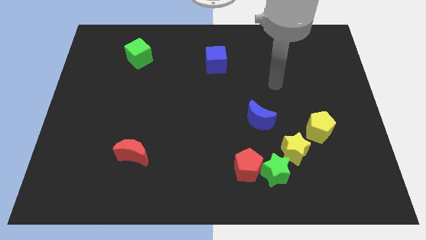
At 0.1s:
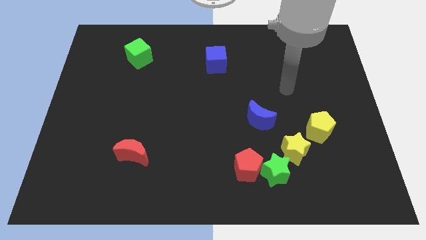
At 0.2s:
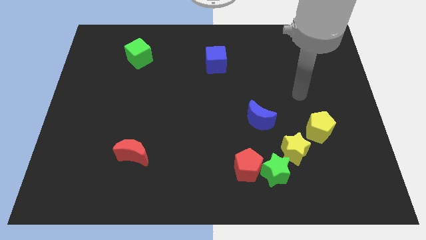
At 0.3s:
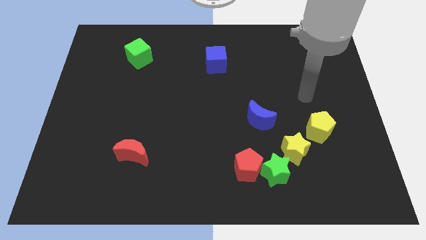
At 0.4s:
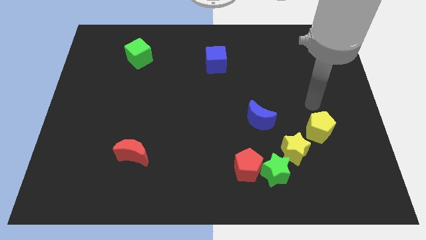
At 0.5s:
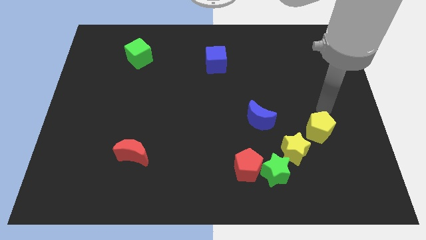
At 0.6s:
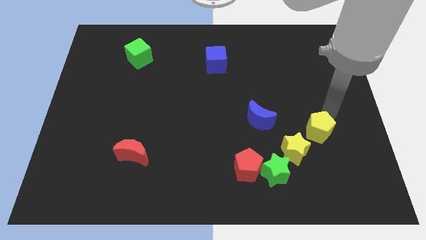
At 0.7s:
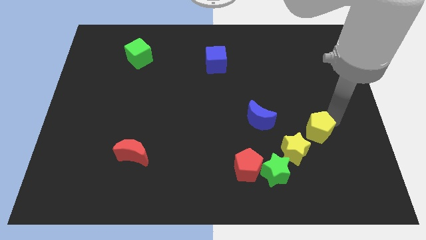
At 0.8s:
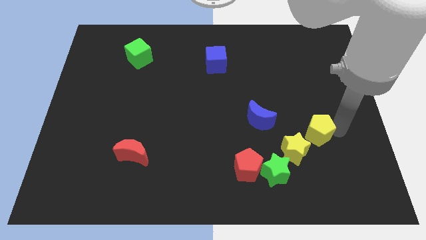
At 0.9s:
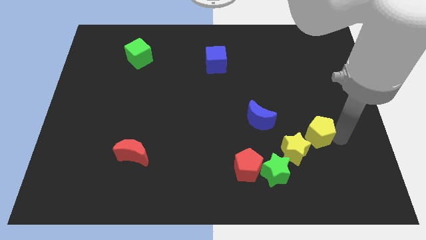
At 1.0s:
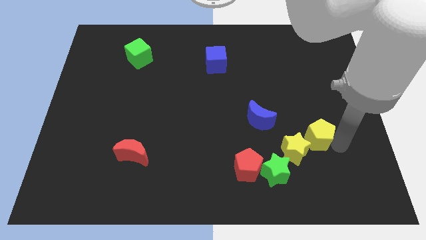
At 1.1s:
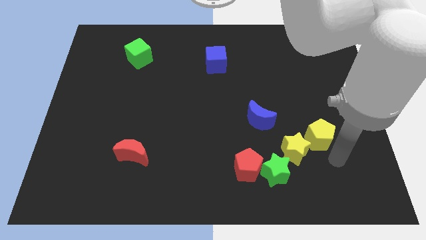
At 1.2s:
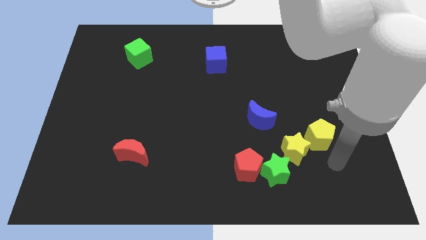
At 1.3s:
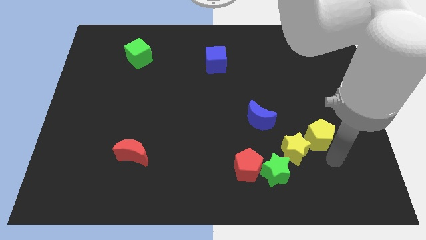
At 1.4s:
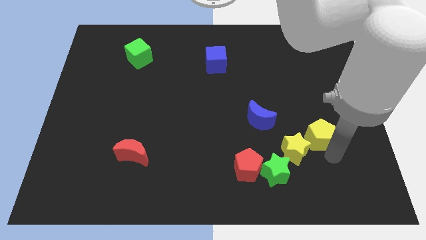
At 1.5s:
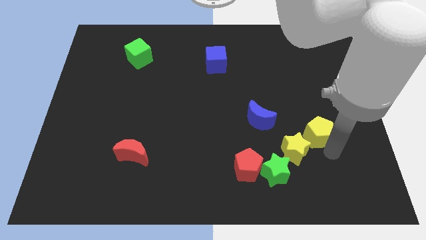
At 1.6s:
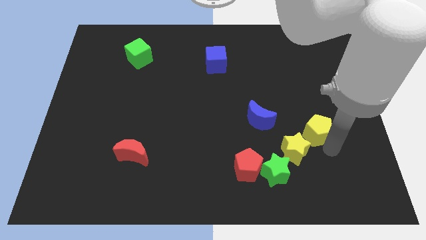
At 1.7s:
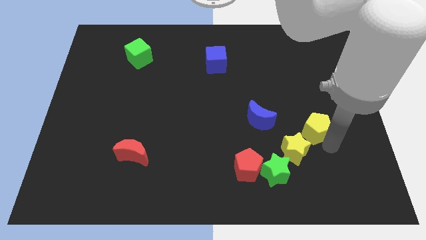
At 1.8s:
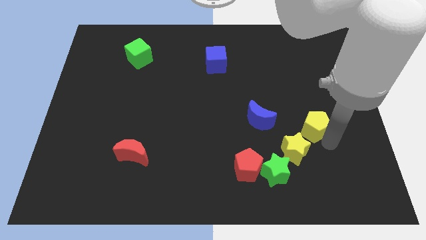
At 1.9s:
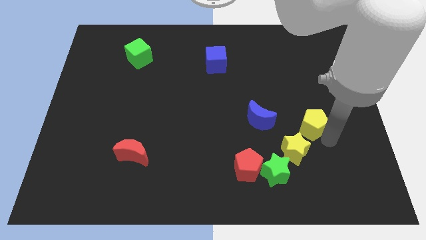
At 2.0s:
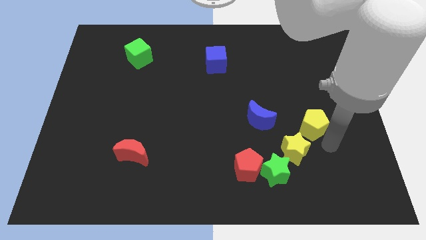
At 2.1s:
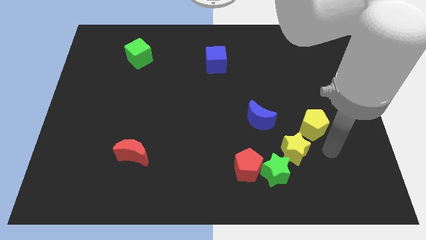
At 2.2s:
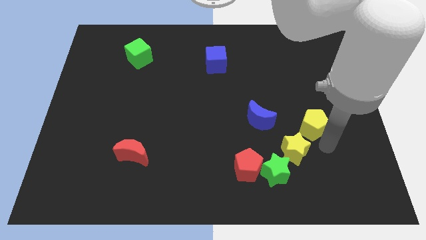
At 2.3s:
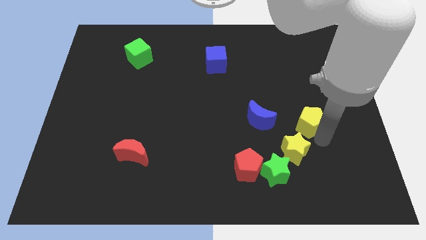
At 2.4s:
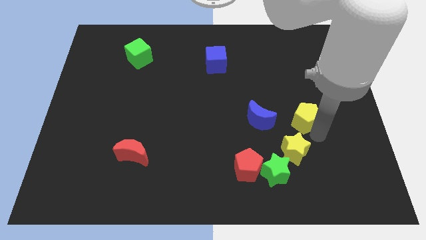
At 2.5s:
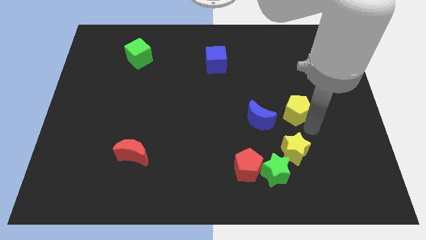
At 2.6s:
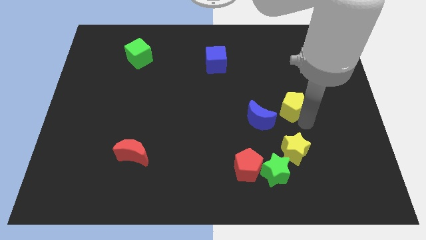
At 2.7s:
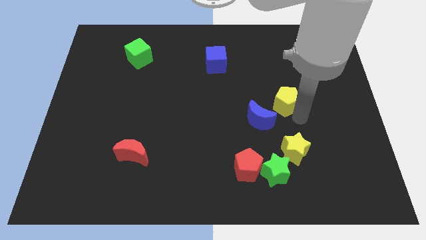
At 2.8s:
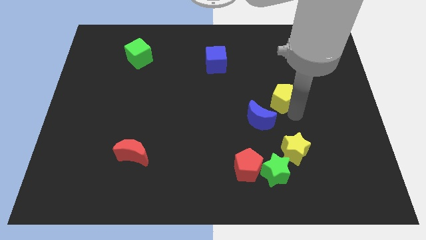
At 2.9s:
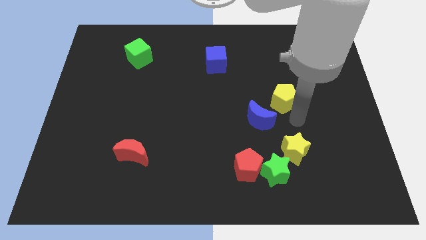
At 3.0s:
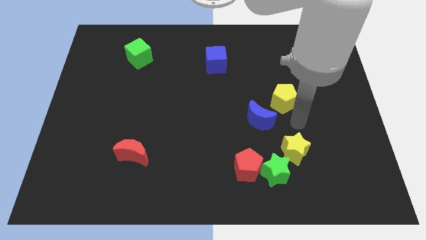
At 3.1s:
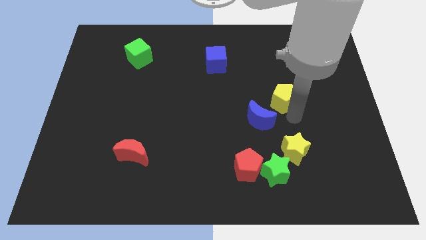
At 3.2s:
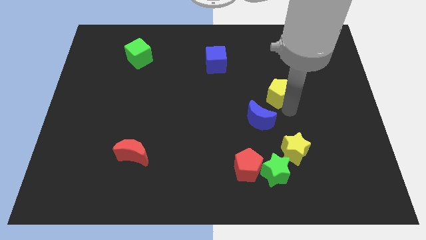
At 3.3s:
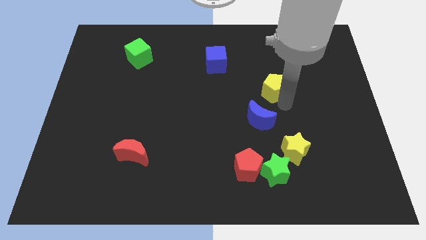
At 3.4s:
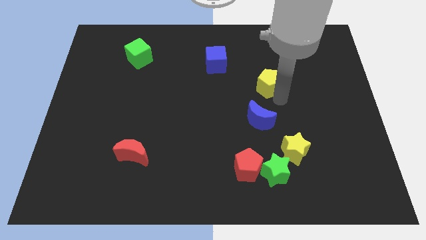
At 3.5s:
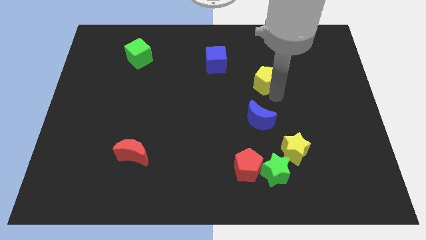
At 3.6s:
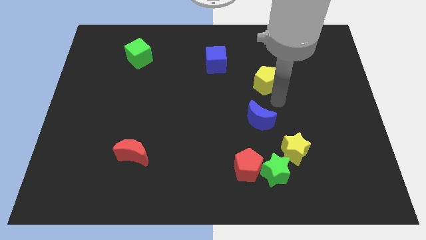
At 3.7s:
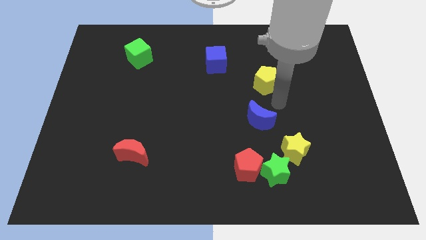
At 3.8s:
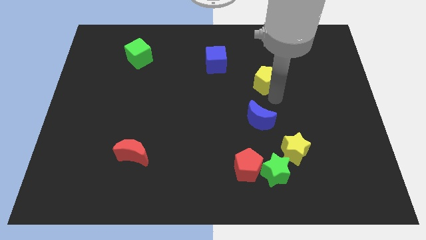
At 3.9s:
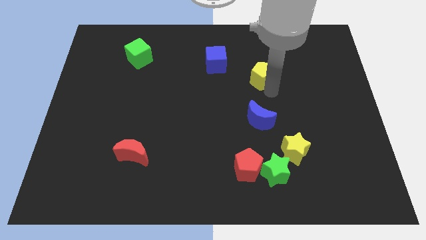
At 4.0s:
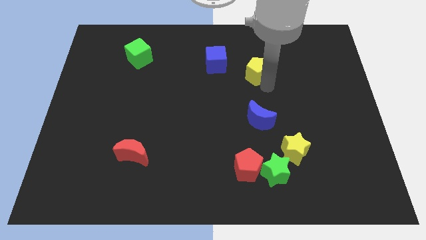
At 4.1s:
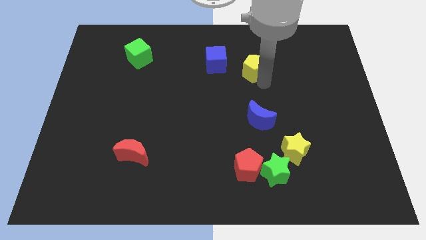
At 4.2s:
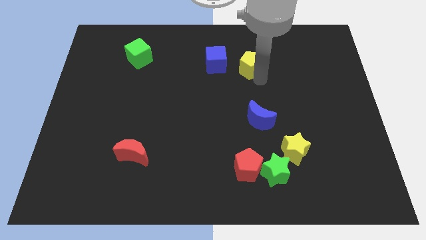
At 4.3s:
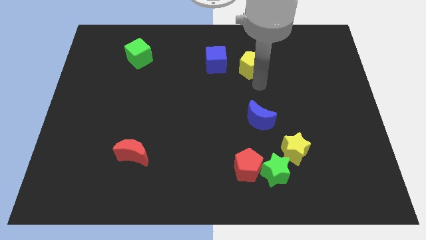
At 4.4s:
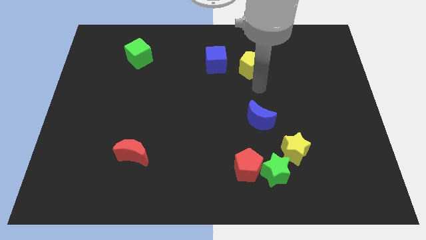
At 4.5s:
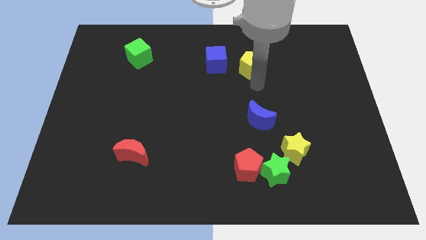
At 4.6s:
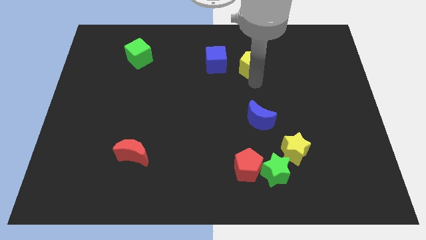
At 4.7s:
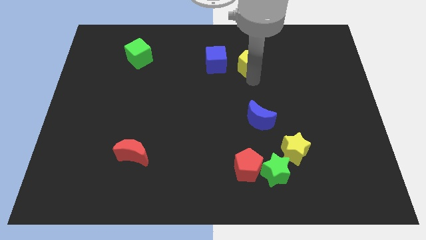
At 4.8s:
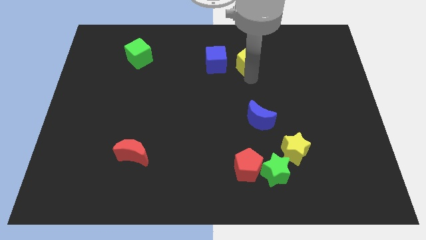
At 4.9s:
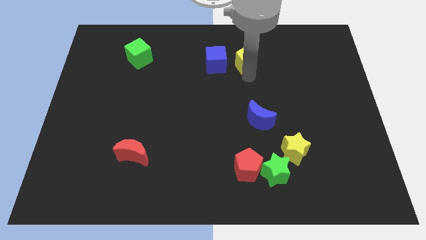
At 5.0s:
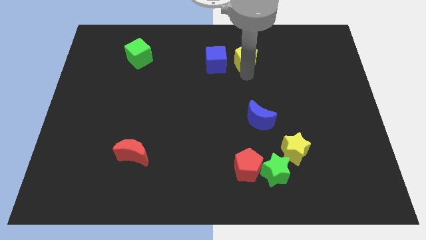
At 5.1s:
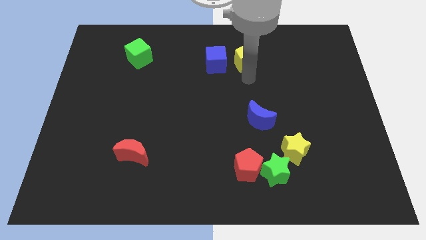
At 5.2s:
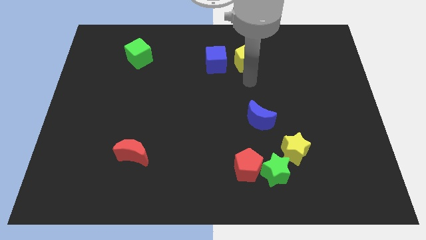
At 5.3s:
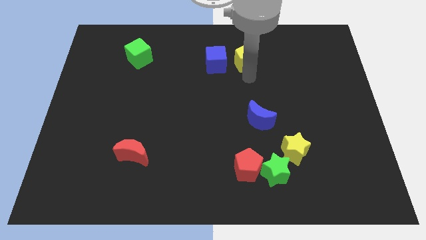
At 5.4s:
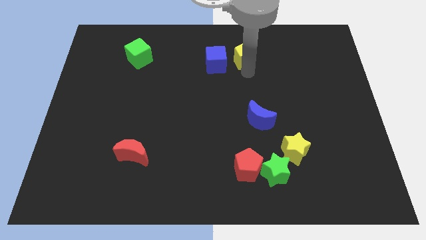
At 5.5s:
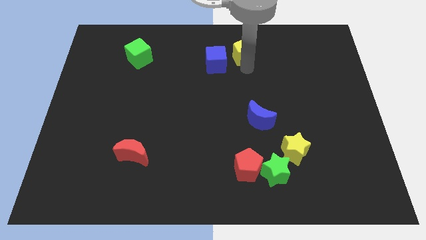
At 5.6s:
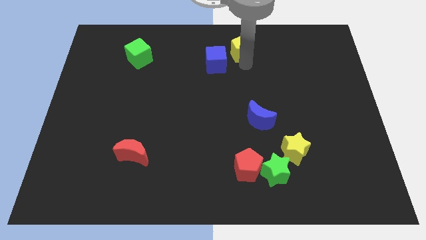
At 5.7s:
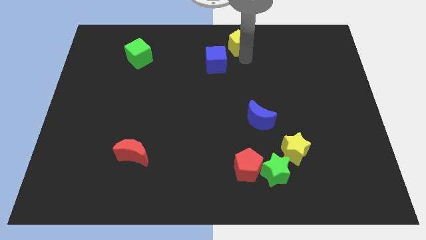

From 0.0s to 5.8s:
move the yellow pentagon to the top side
